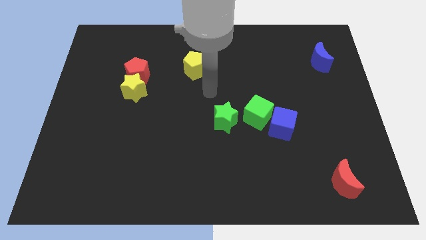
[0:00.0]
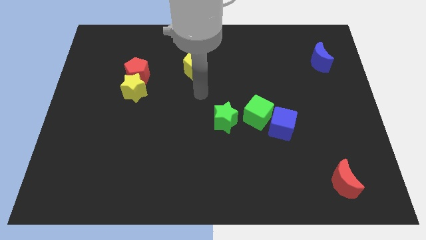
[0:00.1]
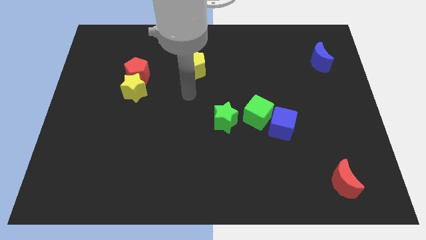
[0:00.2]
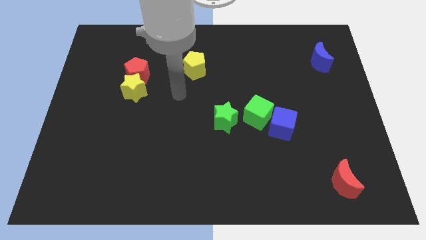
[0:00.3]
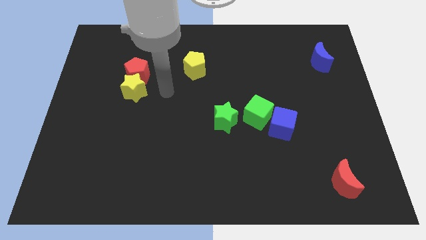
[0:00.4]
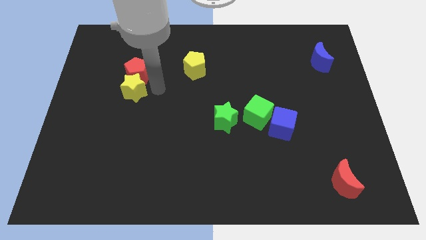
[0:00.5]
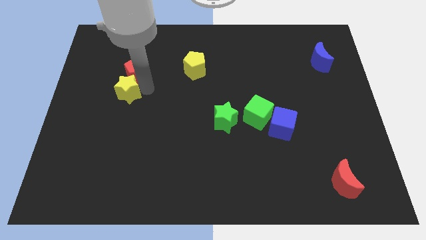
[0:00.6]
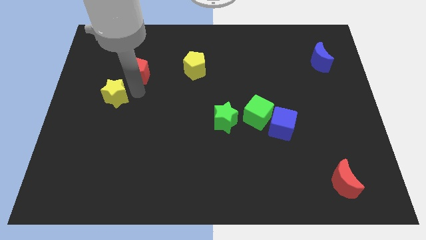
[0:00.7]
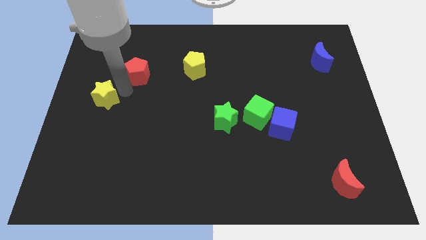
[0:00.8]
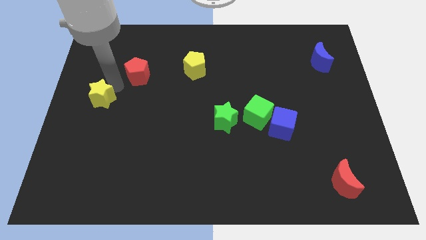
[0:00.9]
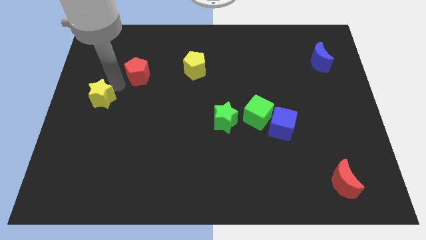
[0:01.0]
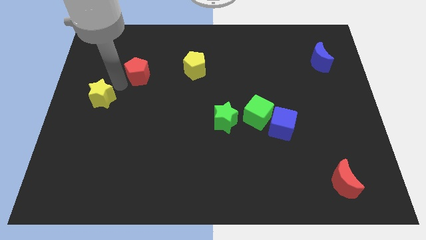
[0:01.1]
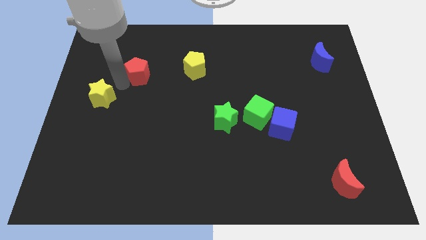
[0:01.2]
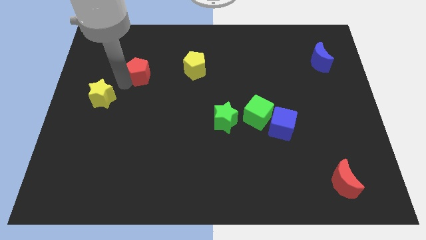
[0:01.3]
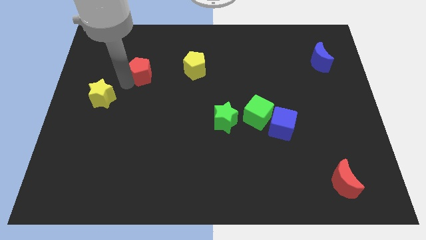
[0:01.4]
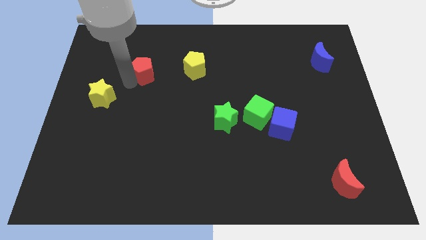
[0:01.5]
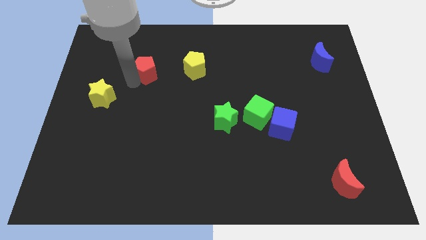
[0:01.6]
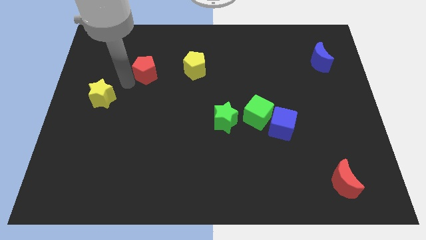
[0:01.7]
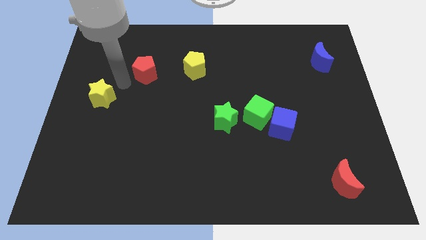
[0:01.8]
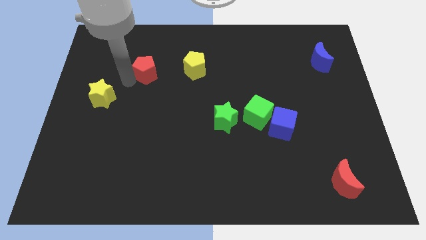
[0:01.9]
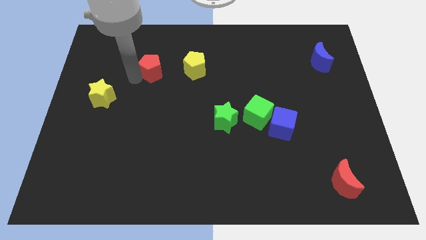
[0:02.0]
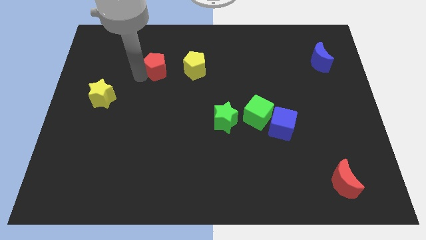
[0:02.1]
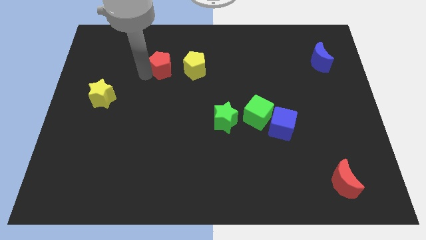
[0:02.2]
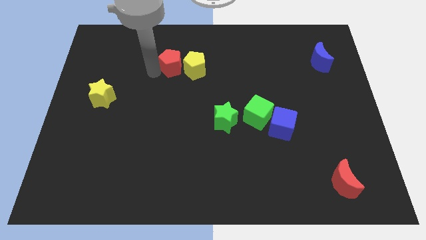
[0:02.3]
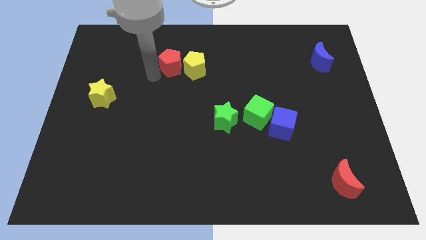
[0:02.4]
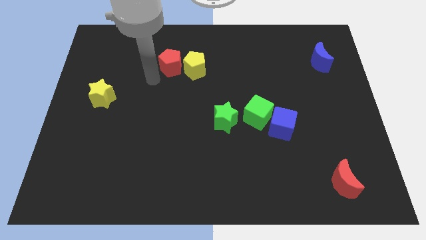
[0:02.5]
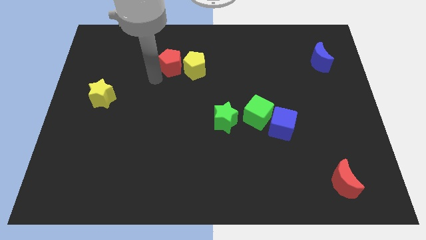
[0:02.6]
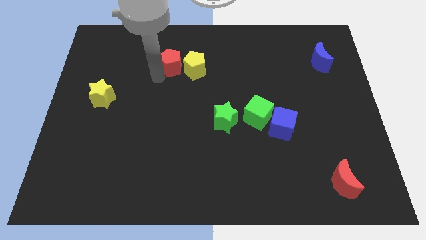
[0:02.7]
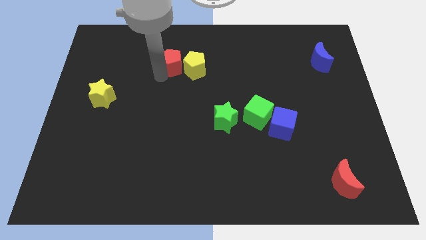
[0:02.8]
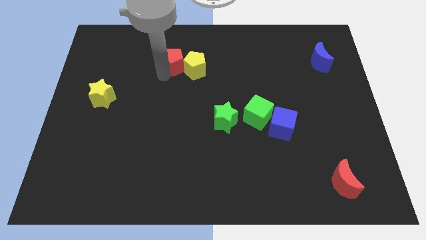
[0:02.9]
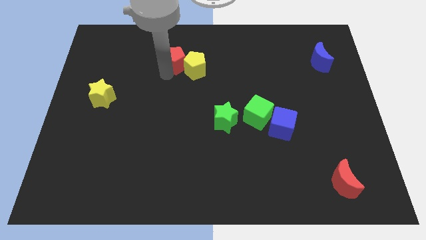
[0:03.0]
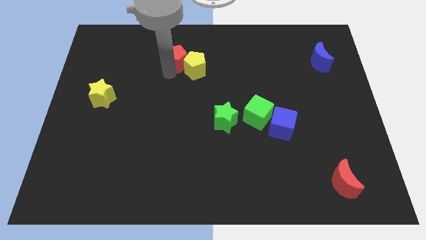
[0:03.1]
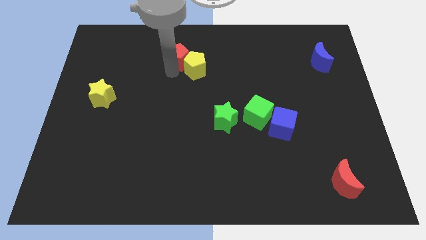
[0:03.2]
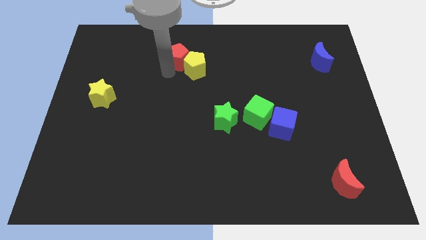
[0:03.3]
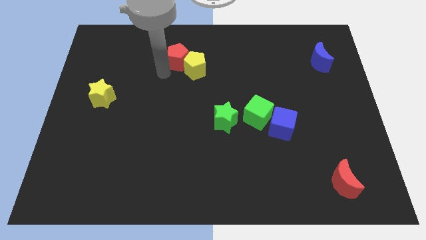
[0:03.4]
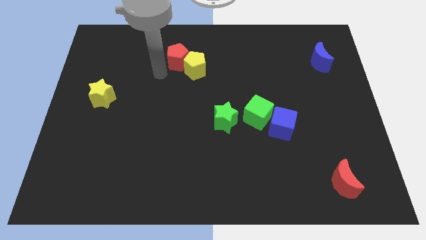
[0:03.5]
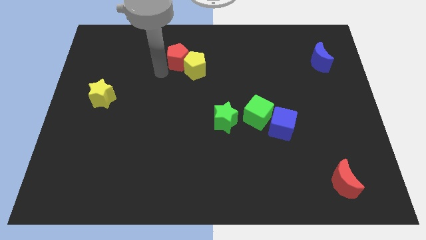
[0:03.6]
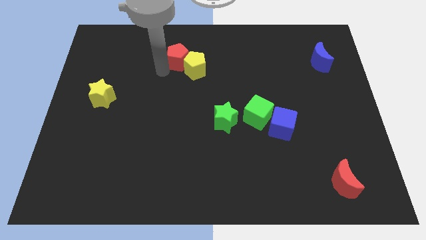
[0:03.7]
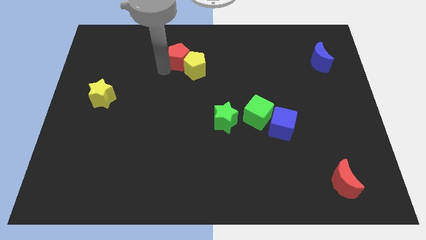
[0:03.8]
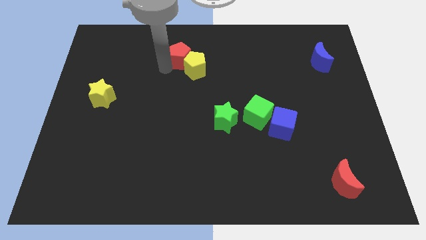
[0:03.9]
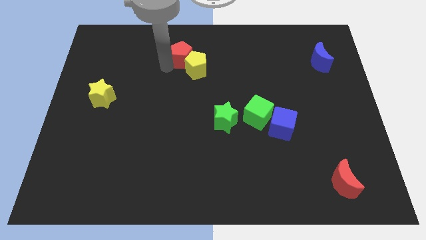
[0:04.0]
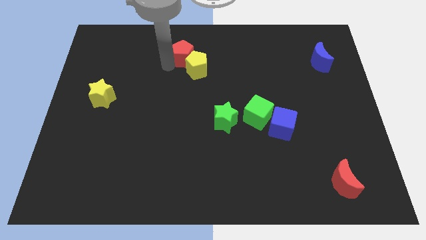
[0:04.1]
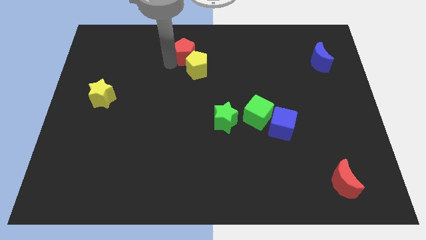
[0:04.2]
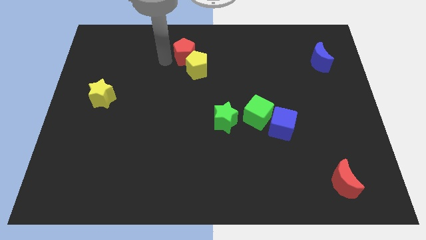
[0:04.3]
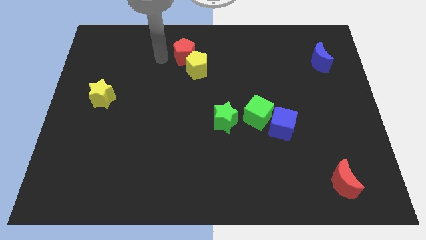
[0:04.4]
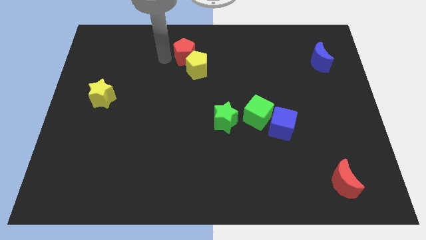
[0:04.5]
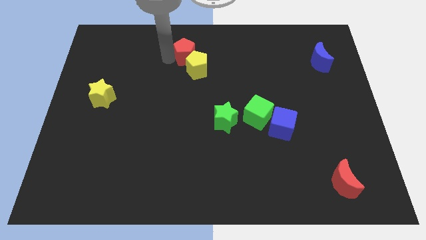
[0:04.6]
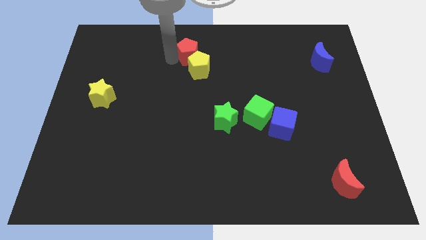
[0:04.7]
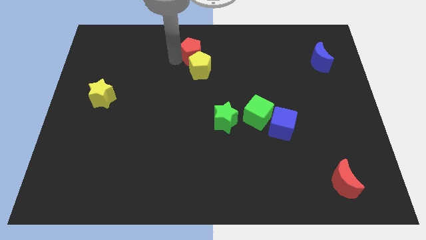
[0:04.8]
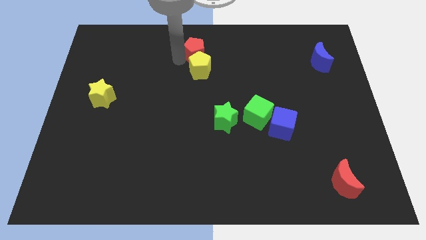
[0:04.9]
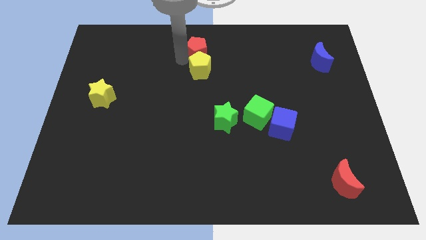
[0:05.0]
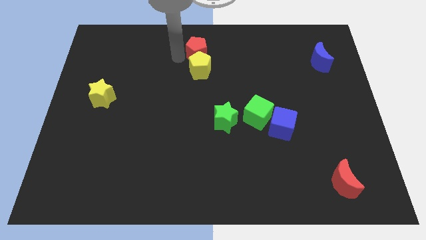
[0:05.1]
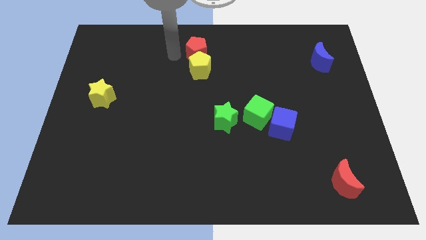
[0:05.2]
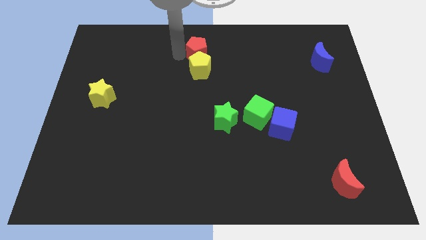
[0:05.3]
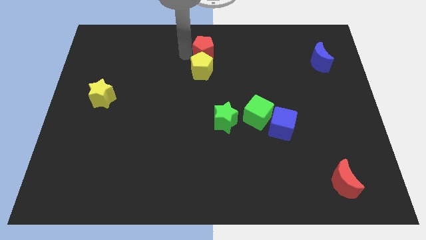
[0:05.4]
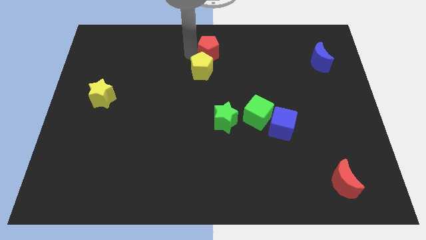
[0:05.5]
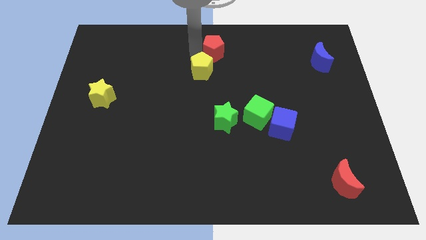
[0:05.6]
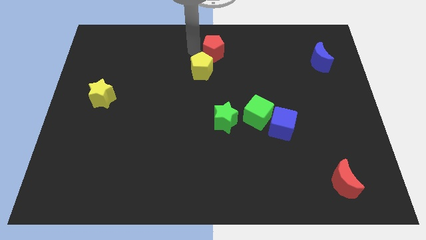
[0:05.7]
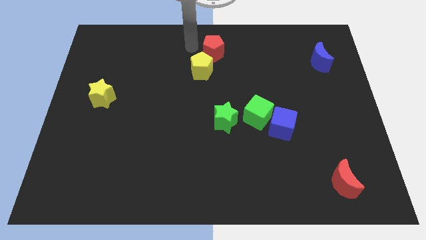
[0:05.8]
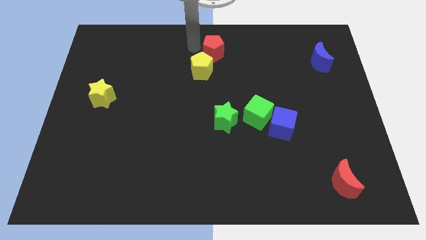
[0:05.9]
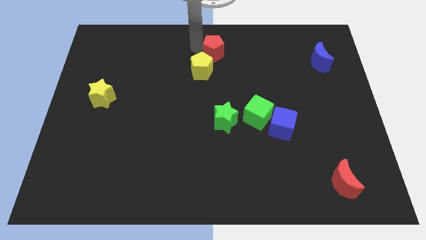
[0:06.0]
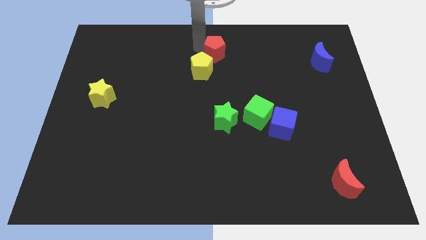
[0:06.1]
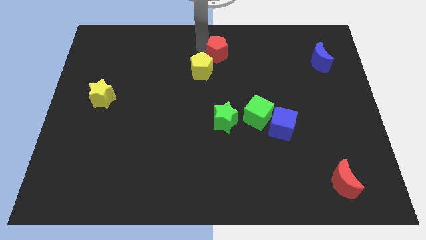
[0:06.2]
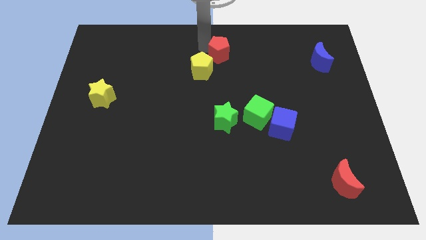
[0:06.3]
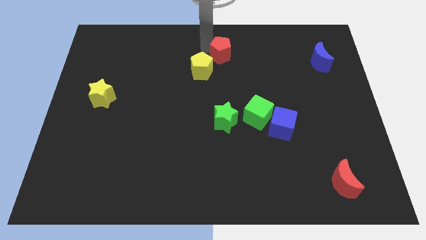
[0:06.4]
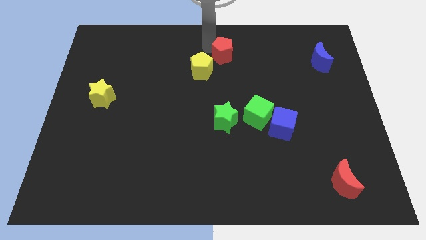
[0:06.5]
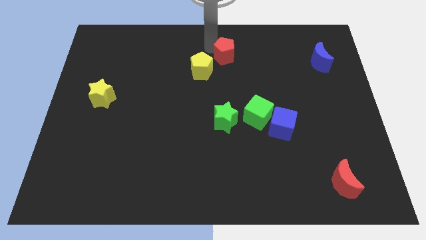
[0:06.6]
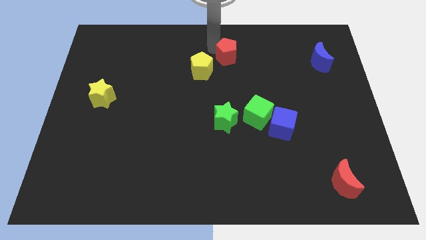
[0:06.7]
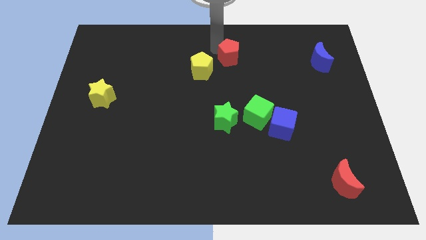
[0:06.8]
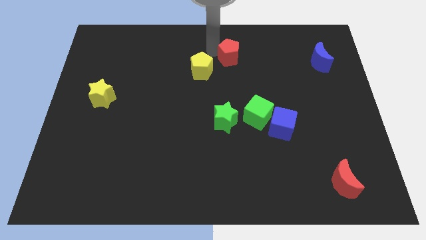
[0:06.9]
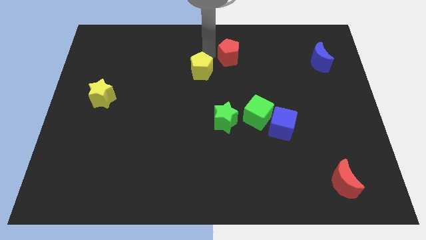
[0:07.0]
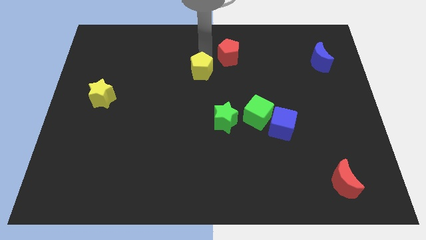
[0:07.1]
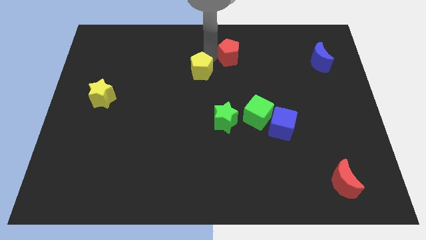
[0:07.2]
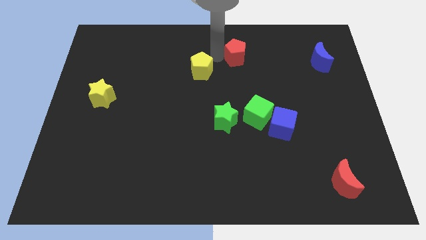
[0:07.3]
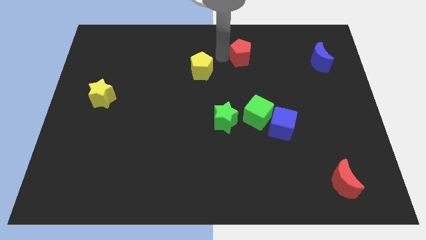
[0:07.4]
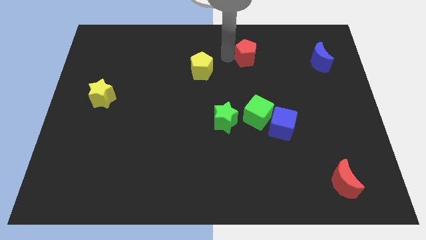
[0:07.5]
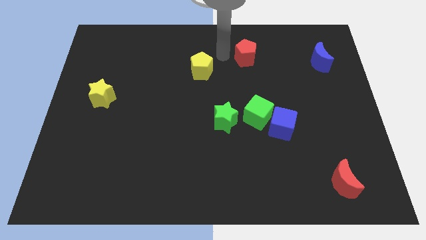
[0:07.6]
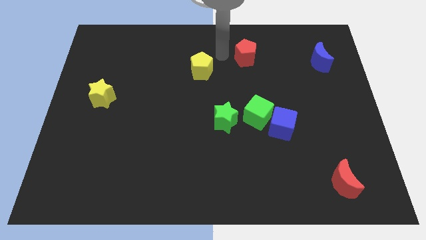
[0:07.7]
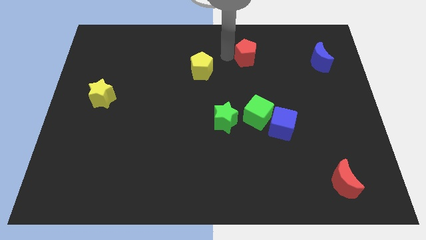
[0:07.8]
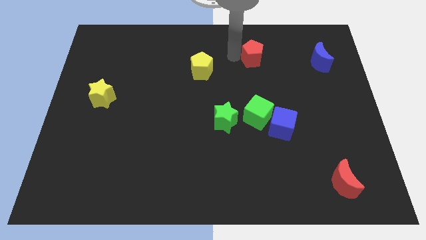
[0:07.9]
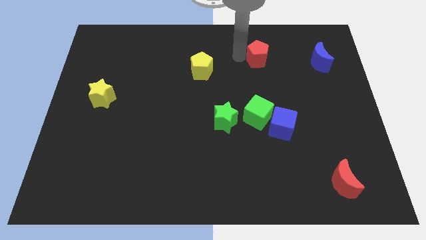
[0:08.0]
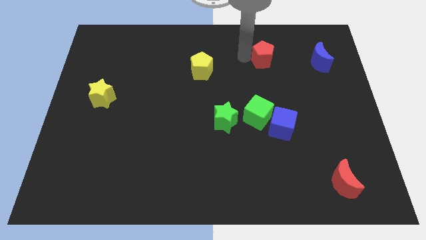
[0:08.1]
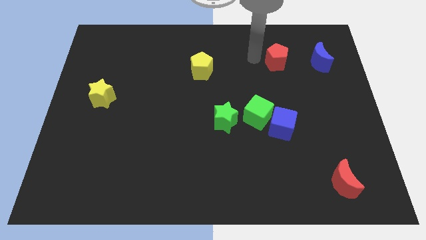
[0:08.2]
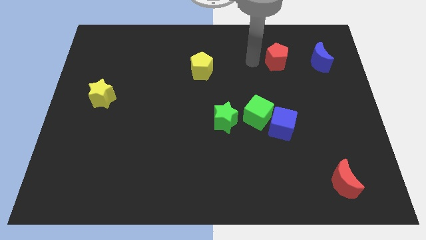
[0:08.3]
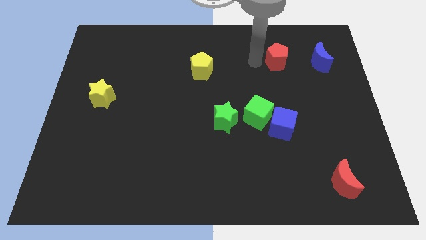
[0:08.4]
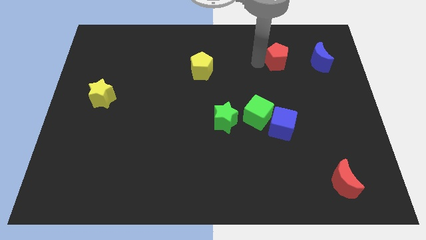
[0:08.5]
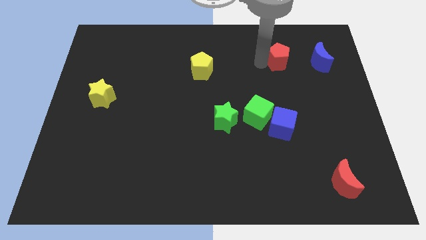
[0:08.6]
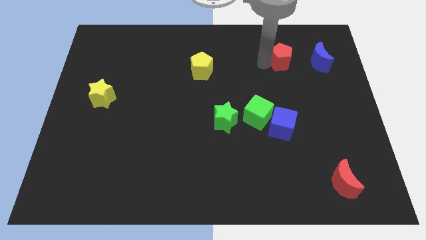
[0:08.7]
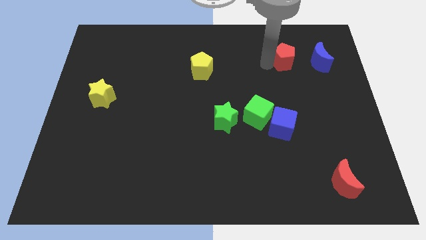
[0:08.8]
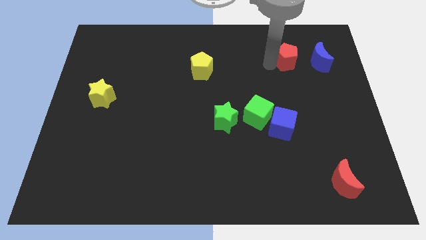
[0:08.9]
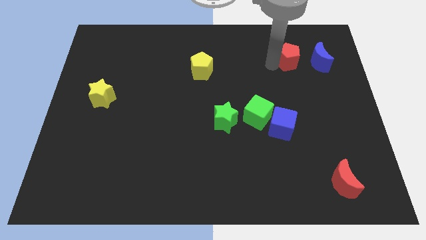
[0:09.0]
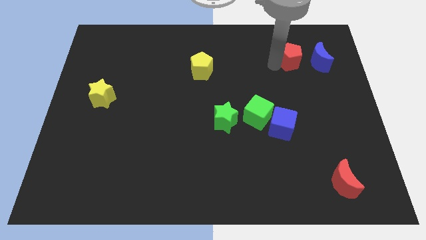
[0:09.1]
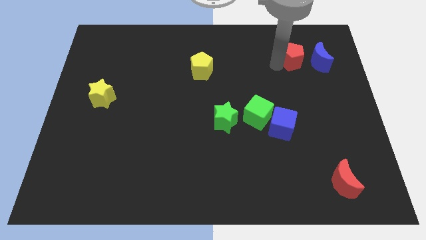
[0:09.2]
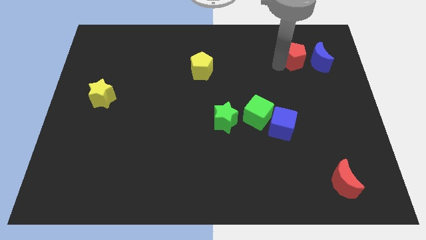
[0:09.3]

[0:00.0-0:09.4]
put the red pentagon next to the blue moon
